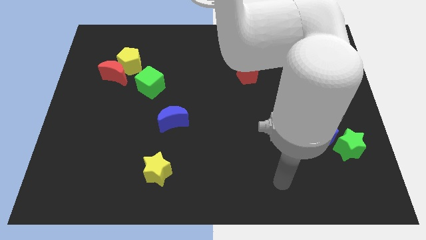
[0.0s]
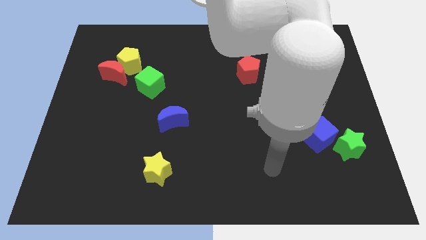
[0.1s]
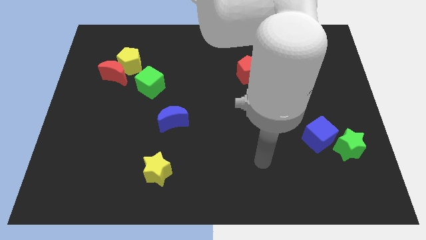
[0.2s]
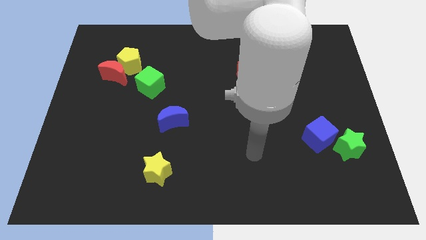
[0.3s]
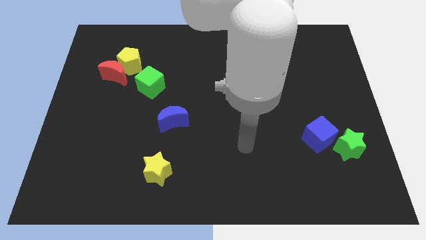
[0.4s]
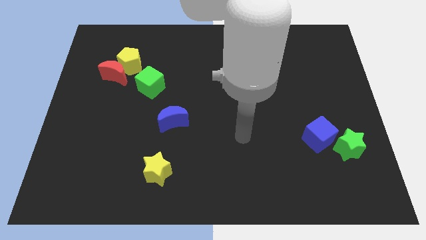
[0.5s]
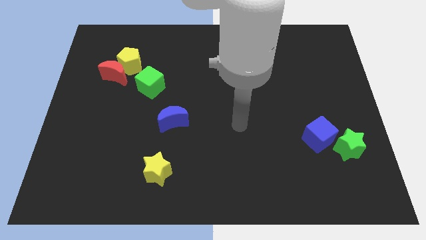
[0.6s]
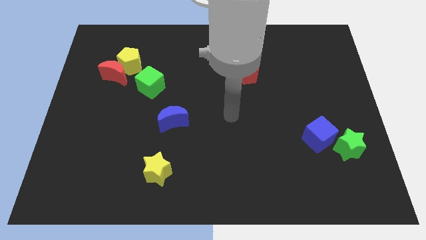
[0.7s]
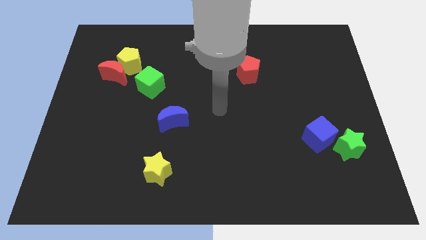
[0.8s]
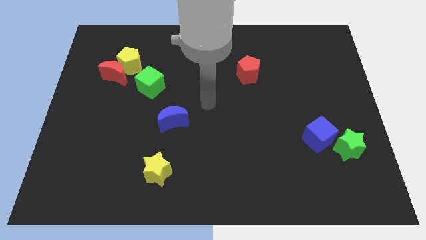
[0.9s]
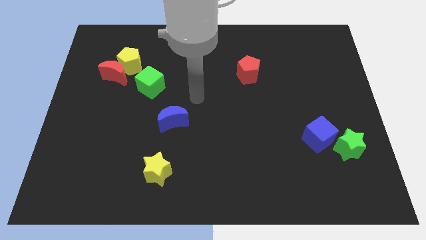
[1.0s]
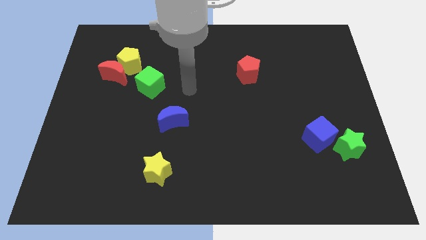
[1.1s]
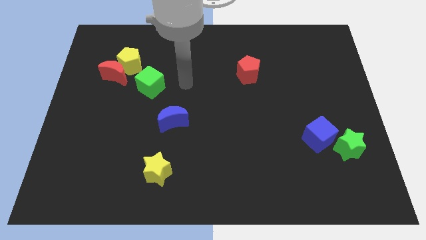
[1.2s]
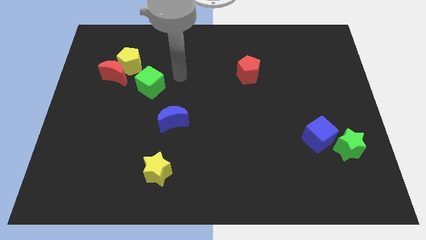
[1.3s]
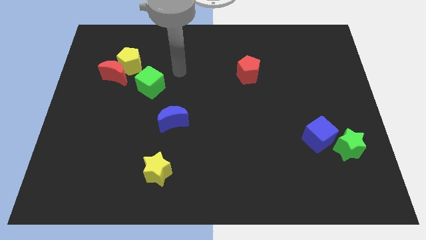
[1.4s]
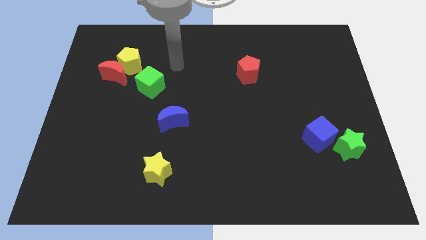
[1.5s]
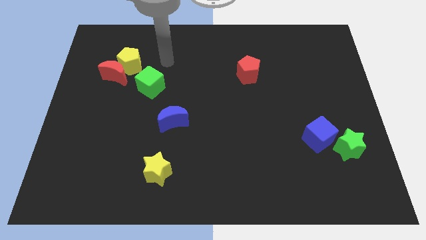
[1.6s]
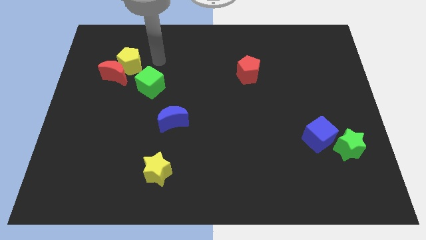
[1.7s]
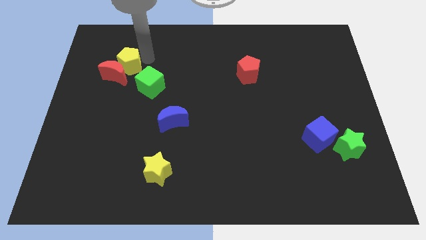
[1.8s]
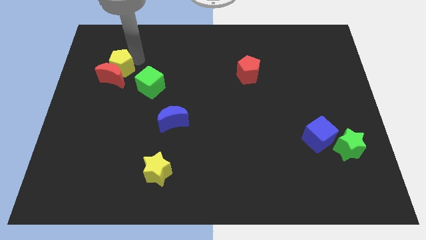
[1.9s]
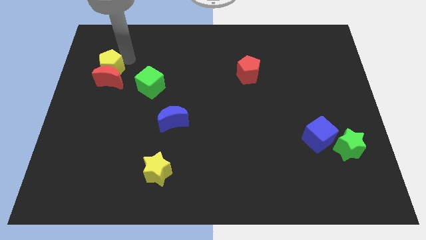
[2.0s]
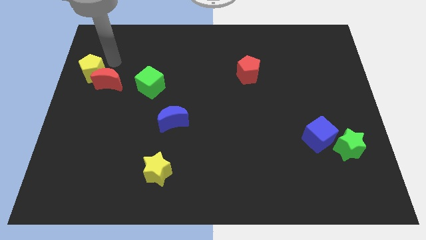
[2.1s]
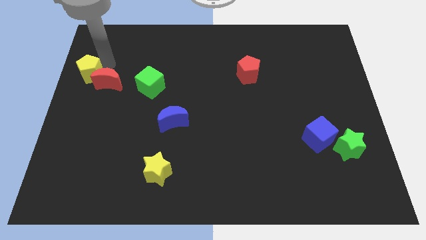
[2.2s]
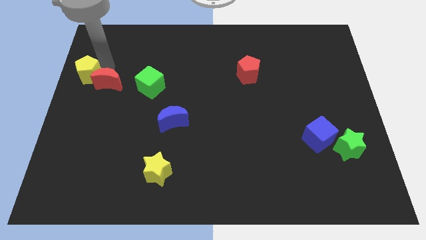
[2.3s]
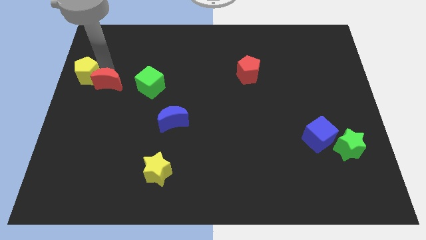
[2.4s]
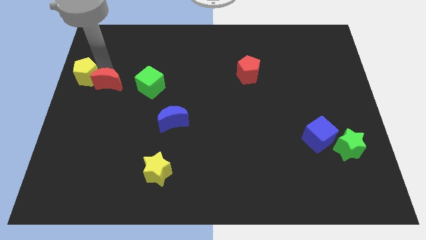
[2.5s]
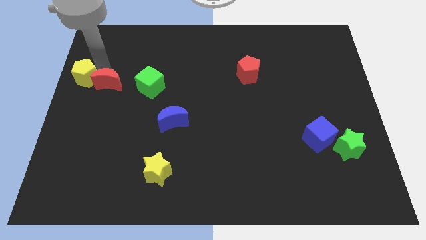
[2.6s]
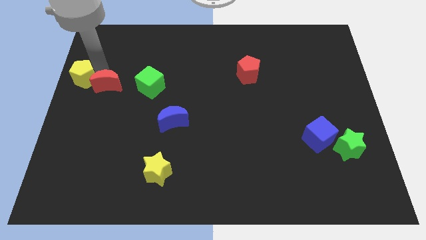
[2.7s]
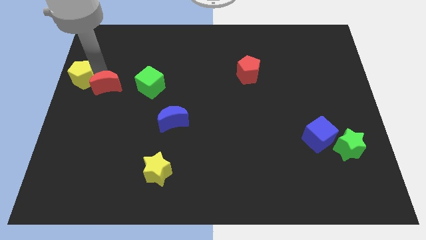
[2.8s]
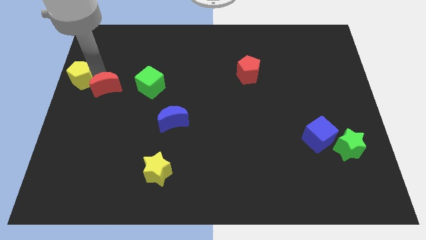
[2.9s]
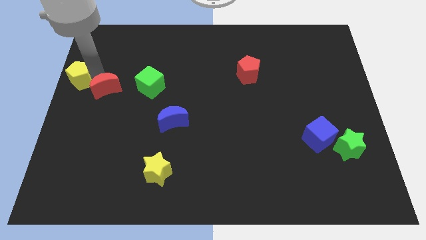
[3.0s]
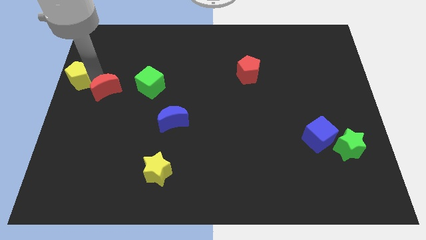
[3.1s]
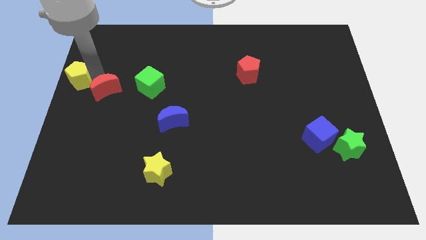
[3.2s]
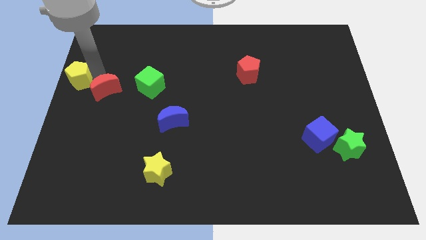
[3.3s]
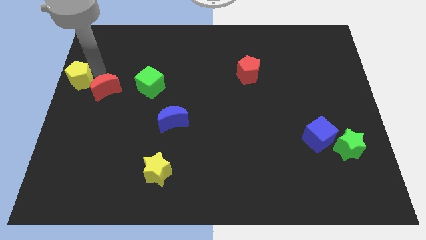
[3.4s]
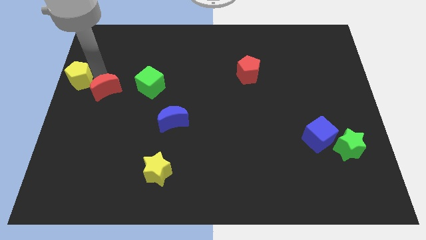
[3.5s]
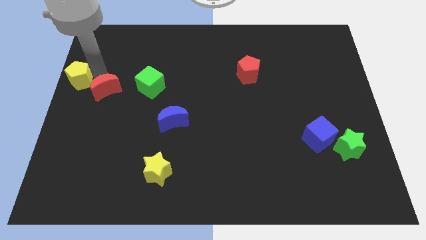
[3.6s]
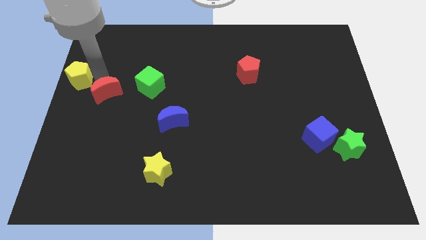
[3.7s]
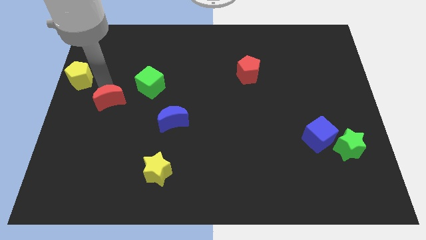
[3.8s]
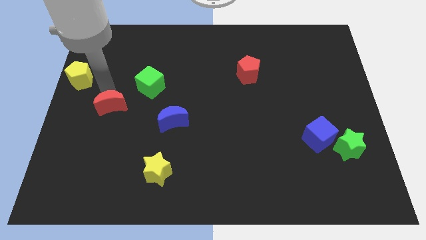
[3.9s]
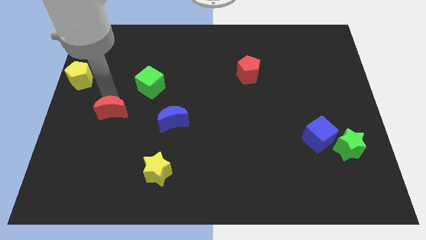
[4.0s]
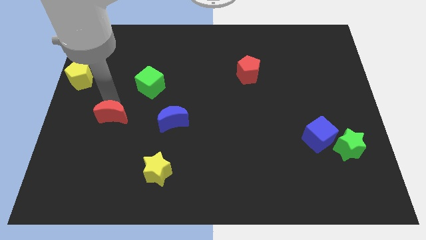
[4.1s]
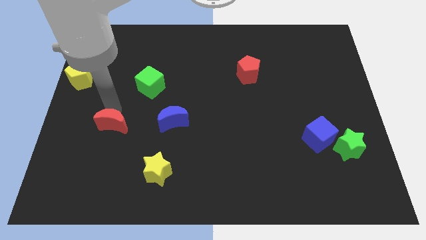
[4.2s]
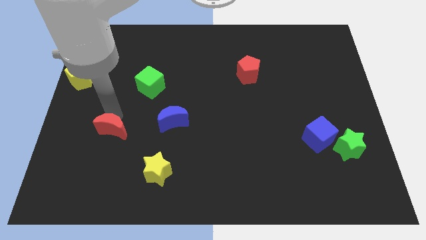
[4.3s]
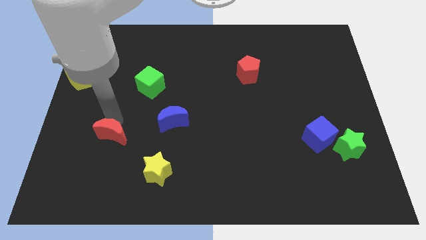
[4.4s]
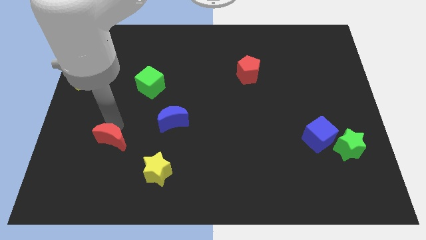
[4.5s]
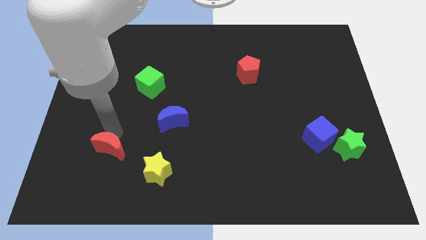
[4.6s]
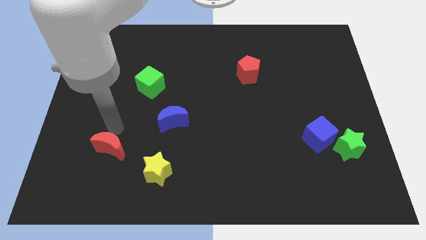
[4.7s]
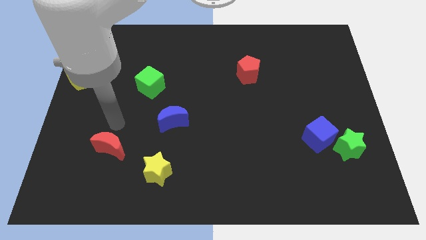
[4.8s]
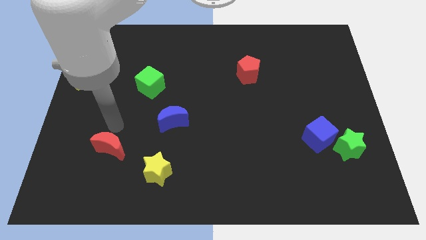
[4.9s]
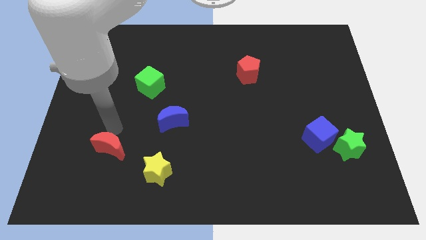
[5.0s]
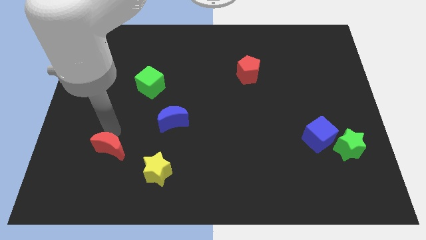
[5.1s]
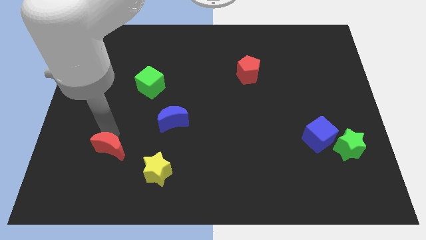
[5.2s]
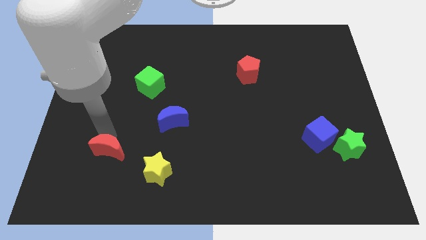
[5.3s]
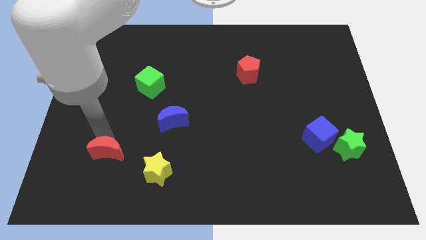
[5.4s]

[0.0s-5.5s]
push the red moon just left of the yellow star

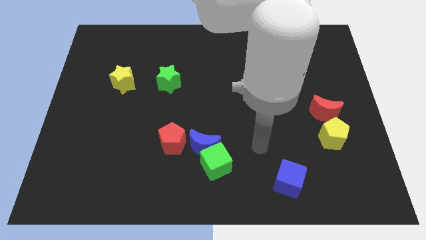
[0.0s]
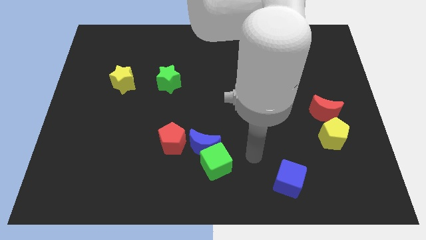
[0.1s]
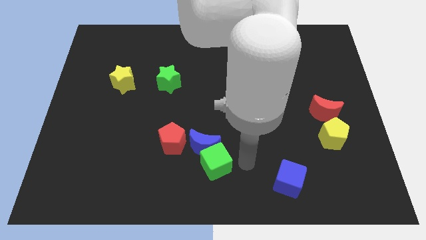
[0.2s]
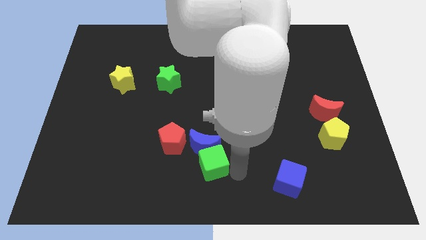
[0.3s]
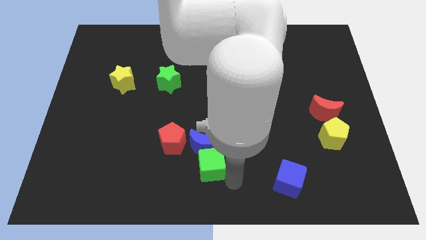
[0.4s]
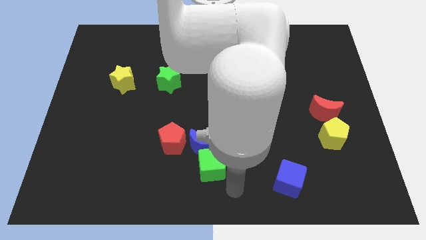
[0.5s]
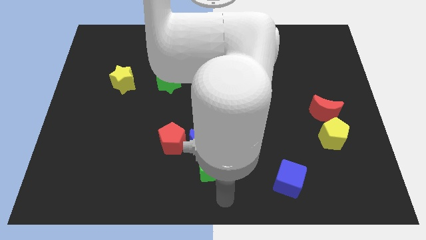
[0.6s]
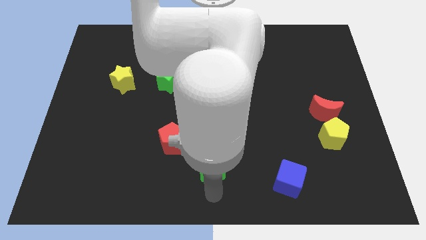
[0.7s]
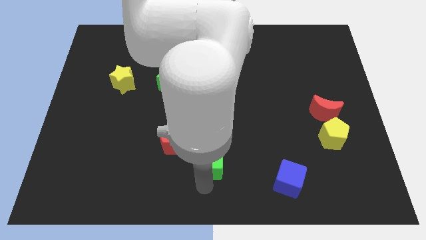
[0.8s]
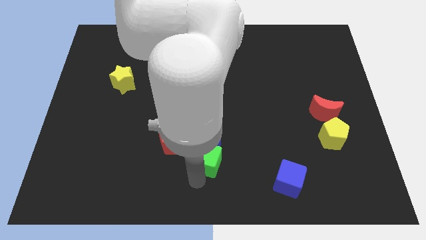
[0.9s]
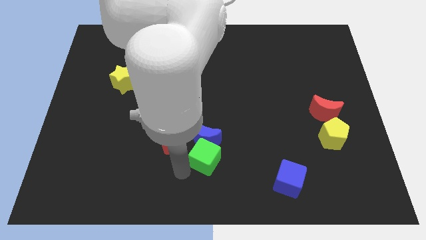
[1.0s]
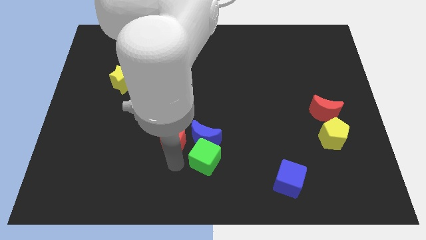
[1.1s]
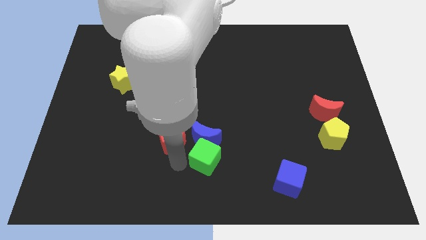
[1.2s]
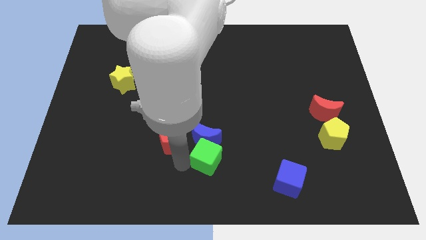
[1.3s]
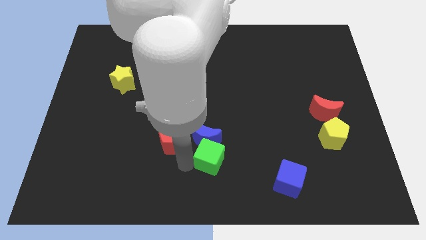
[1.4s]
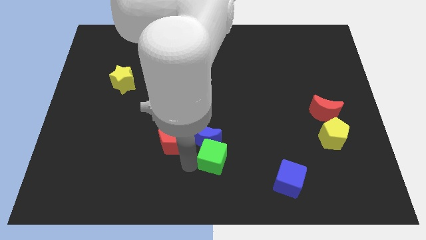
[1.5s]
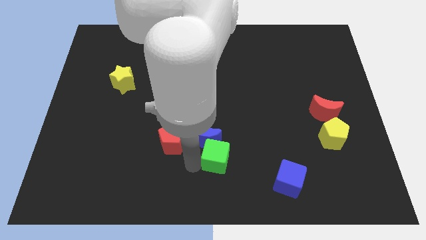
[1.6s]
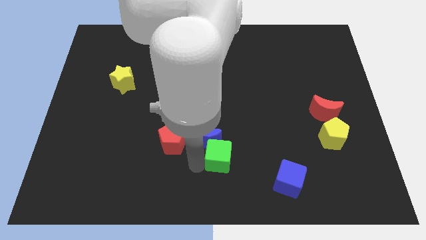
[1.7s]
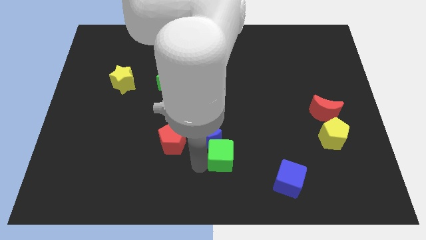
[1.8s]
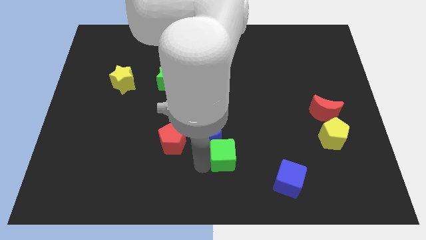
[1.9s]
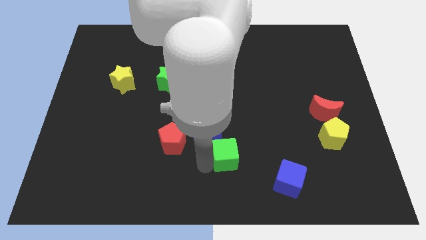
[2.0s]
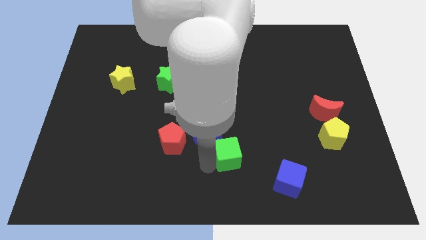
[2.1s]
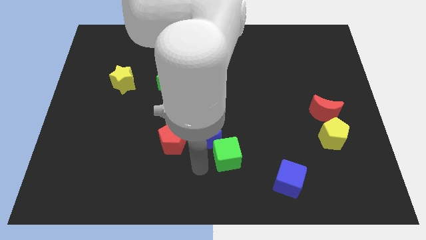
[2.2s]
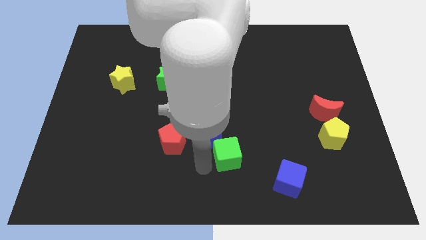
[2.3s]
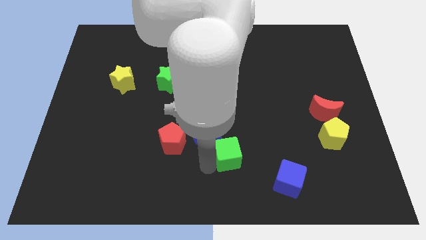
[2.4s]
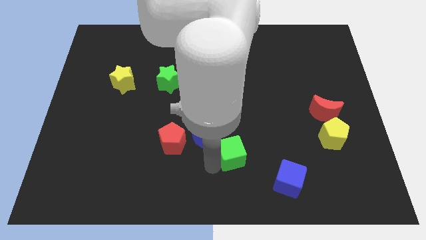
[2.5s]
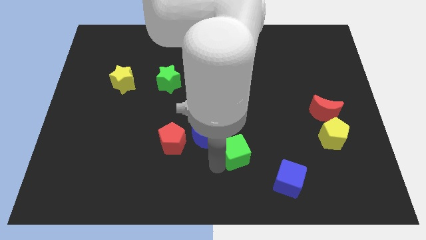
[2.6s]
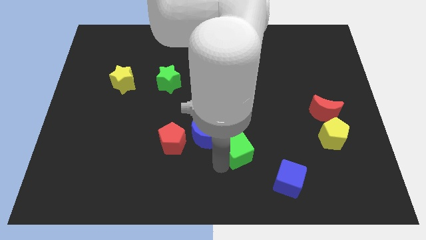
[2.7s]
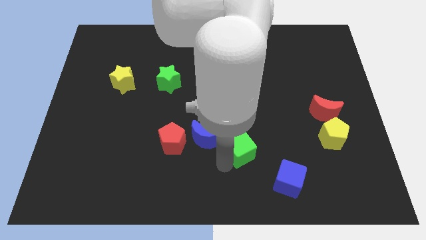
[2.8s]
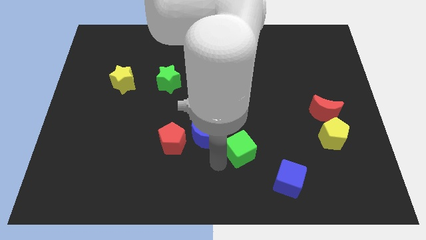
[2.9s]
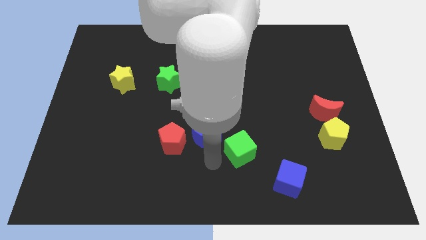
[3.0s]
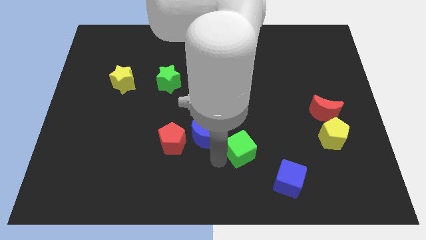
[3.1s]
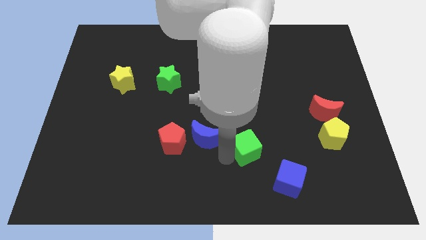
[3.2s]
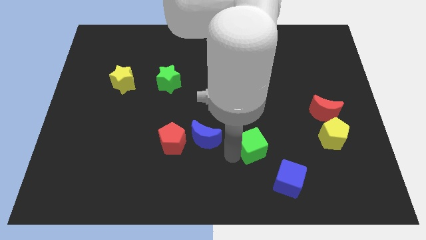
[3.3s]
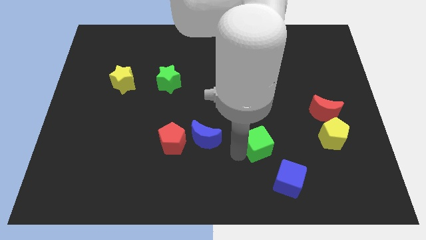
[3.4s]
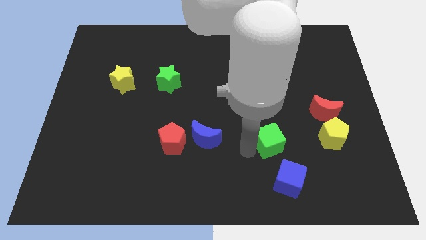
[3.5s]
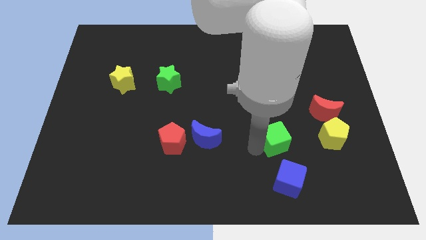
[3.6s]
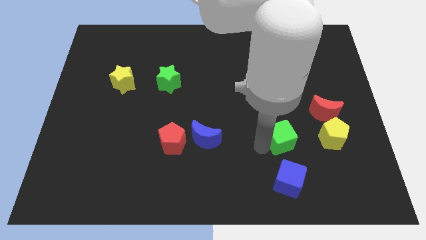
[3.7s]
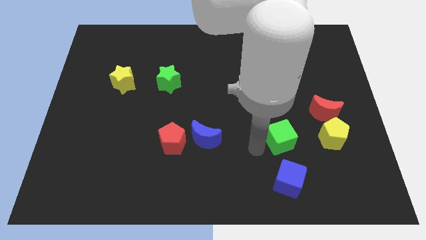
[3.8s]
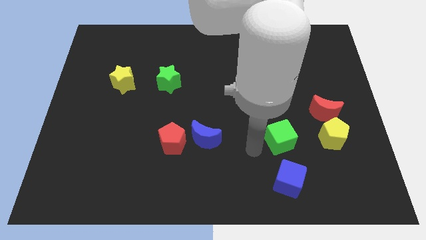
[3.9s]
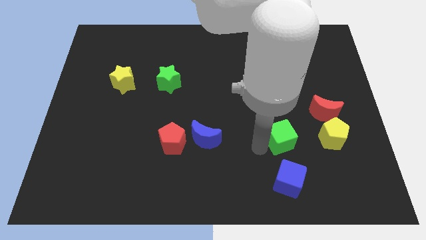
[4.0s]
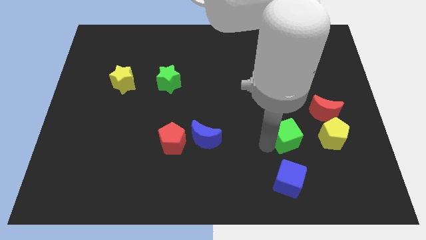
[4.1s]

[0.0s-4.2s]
push the green cube to the bottom left of the red moon
